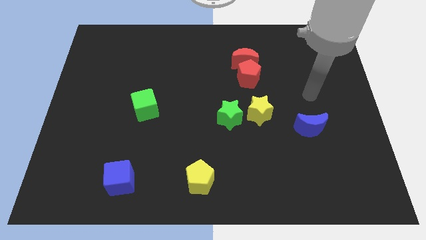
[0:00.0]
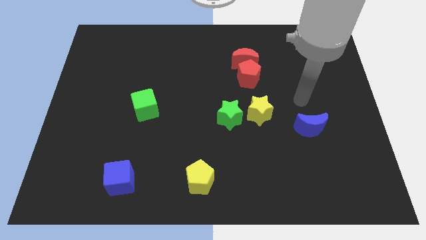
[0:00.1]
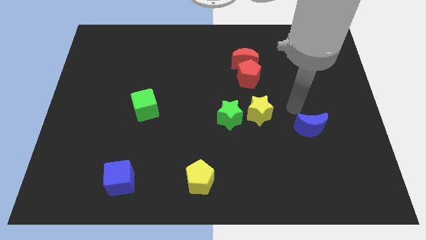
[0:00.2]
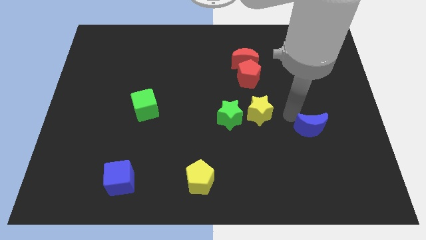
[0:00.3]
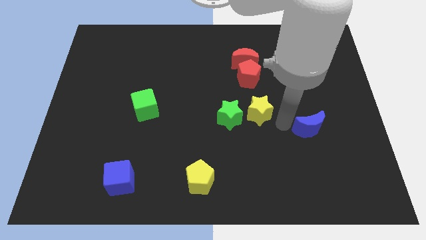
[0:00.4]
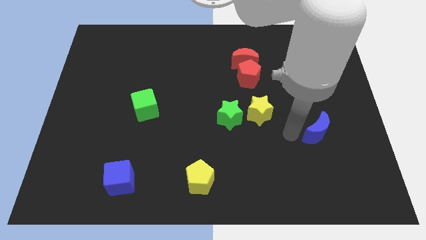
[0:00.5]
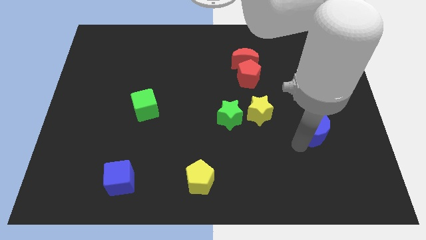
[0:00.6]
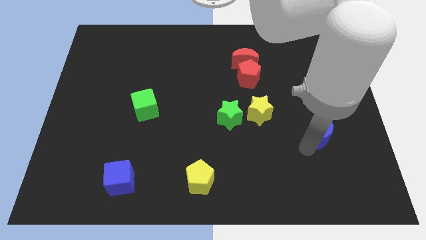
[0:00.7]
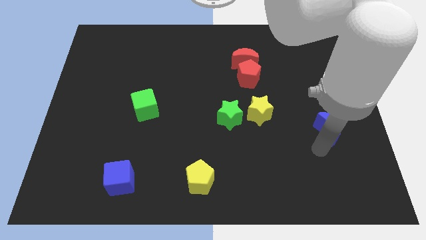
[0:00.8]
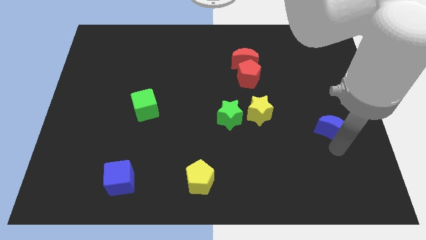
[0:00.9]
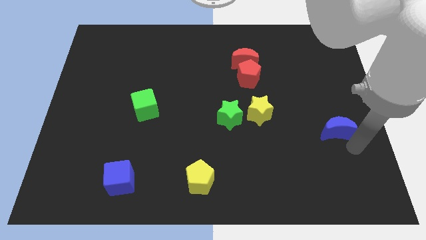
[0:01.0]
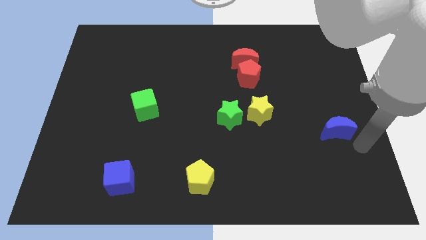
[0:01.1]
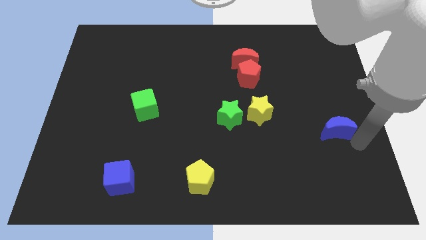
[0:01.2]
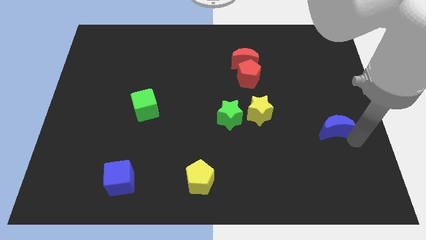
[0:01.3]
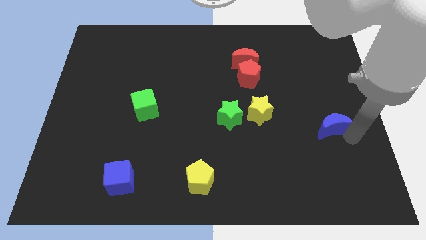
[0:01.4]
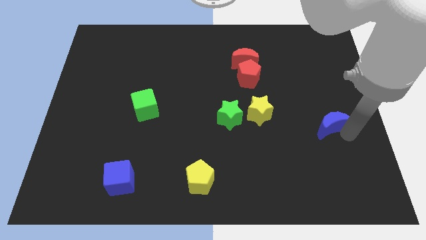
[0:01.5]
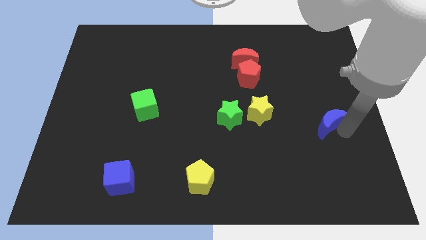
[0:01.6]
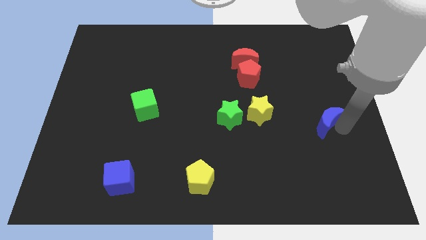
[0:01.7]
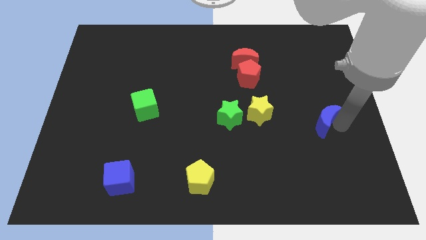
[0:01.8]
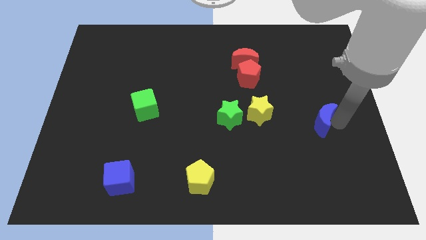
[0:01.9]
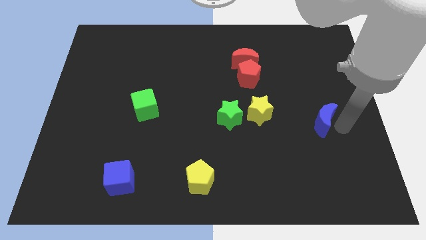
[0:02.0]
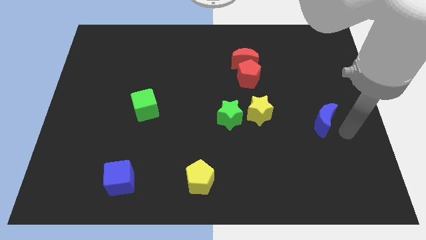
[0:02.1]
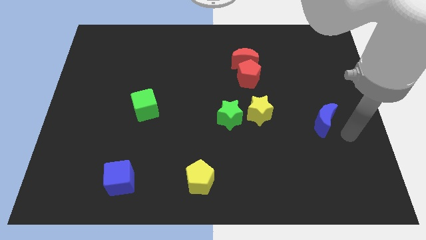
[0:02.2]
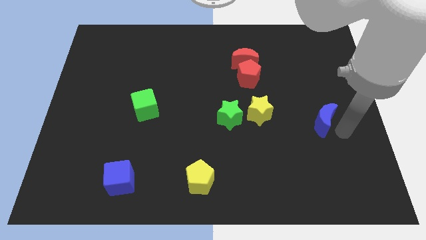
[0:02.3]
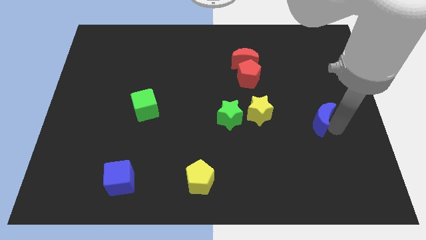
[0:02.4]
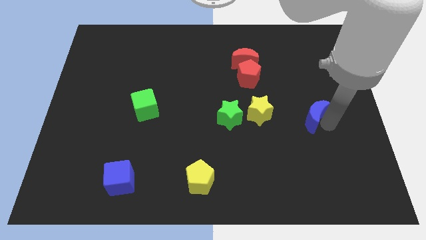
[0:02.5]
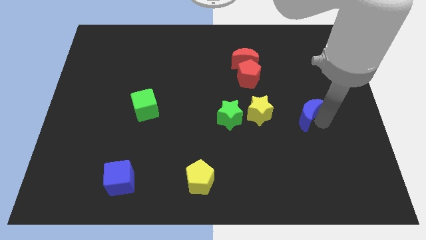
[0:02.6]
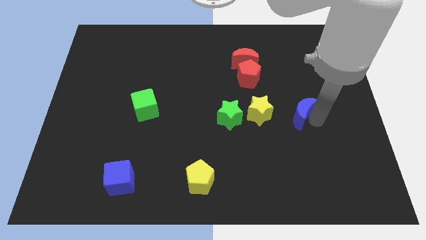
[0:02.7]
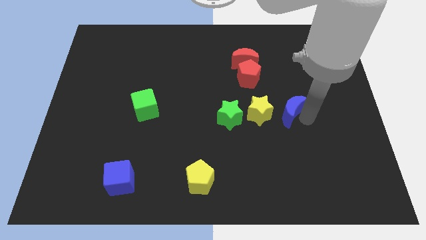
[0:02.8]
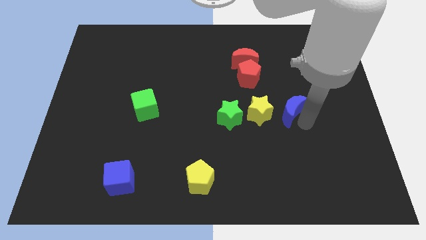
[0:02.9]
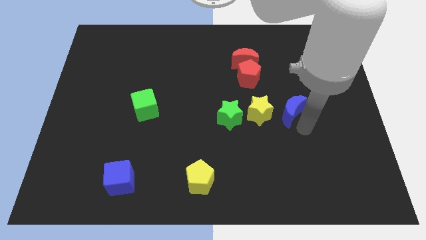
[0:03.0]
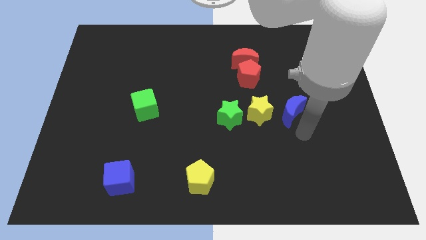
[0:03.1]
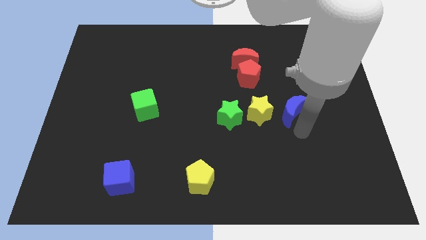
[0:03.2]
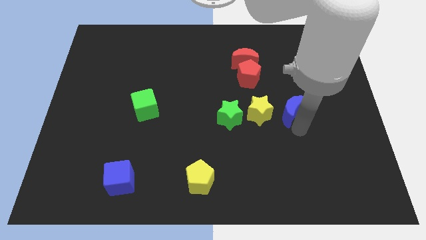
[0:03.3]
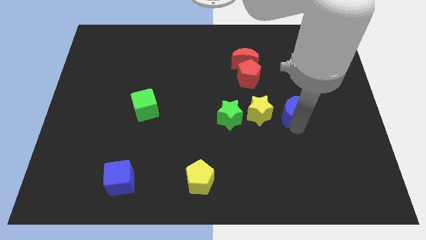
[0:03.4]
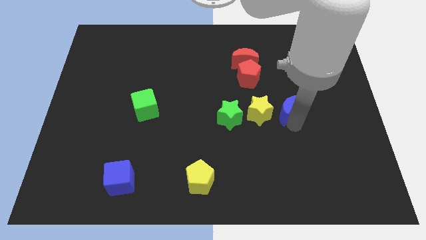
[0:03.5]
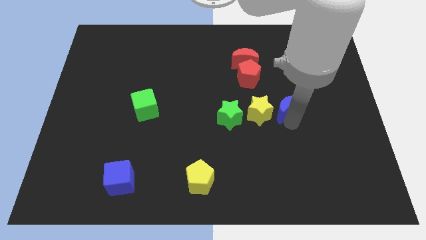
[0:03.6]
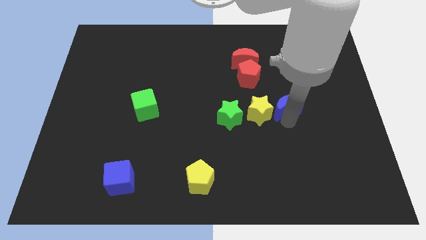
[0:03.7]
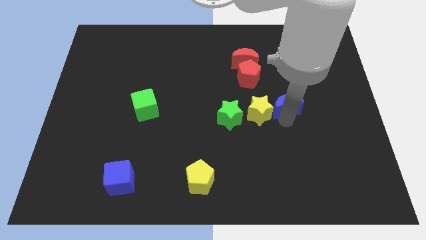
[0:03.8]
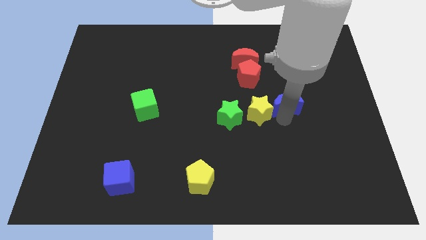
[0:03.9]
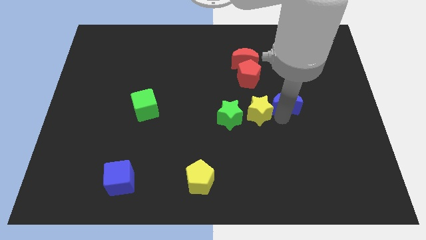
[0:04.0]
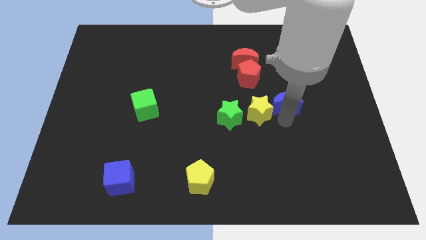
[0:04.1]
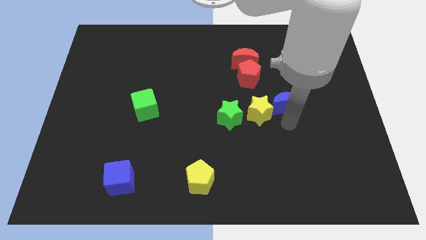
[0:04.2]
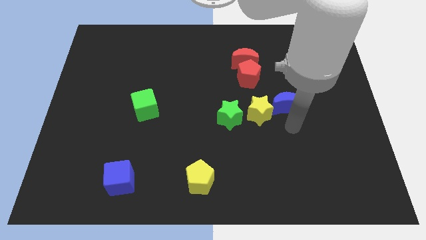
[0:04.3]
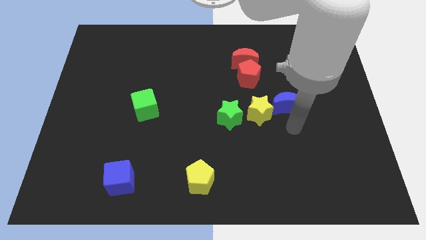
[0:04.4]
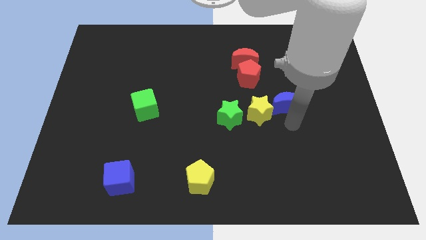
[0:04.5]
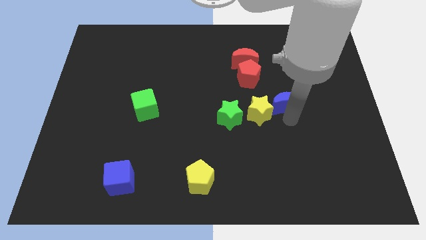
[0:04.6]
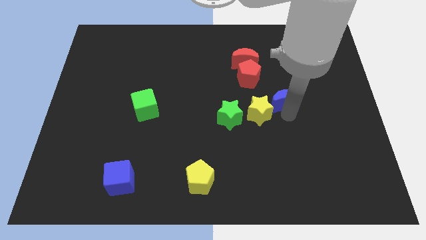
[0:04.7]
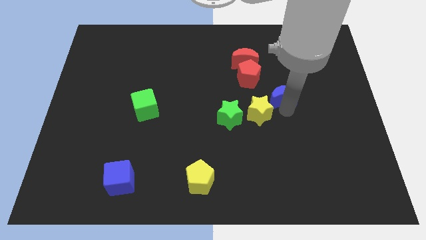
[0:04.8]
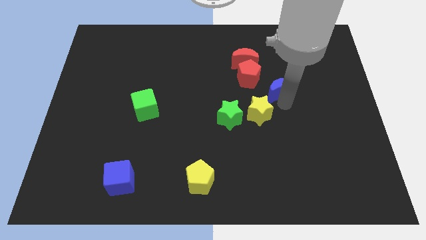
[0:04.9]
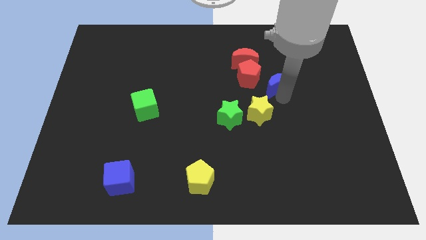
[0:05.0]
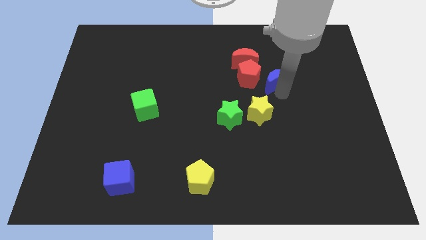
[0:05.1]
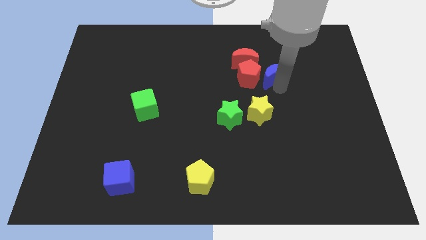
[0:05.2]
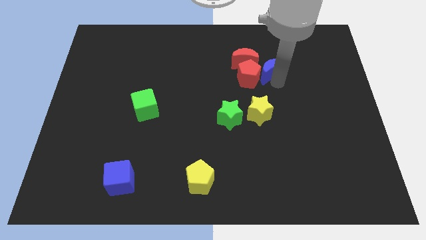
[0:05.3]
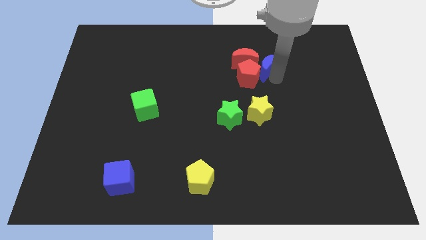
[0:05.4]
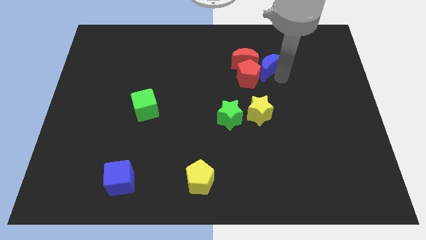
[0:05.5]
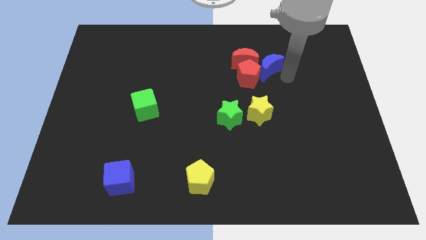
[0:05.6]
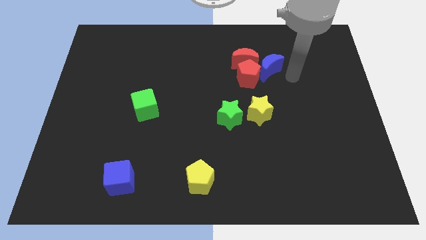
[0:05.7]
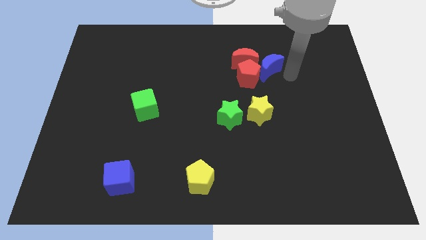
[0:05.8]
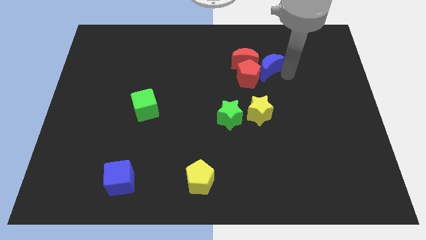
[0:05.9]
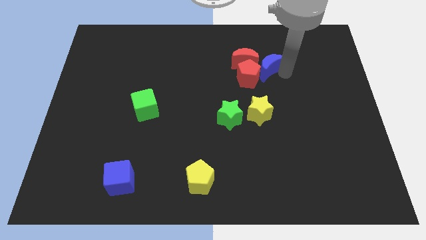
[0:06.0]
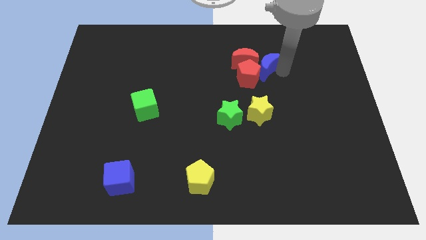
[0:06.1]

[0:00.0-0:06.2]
slide the blue moon to the red moon

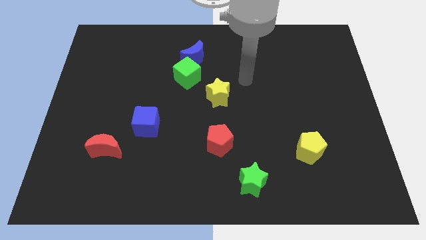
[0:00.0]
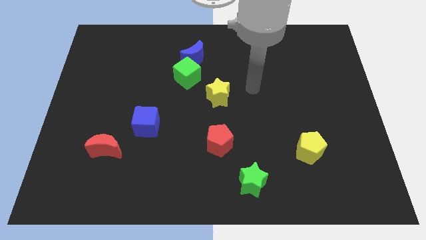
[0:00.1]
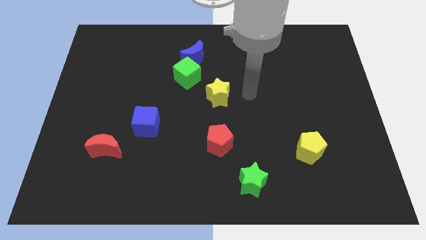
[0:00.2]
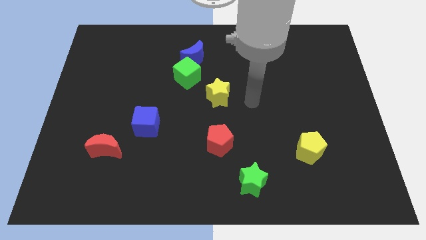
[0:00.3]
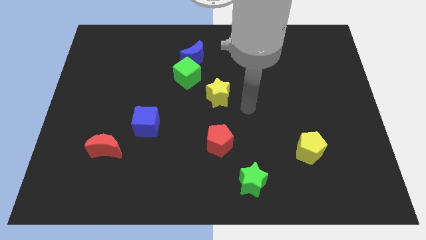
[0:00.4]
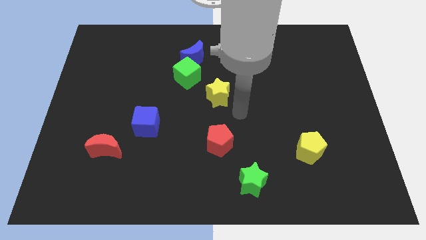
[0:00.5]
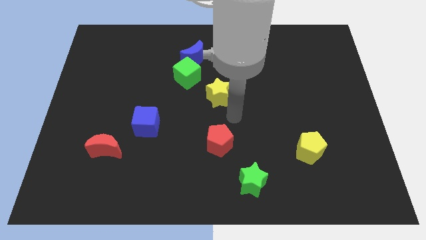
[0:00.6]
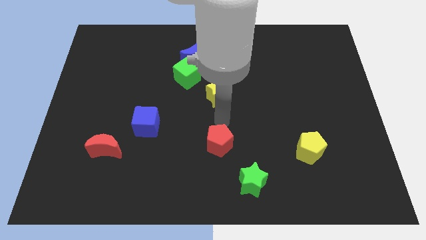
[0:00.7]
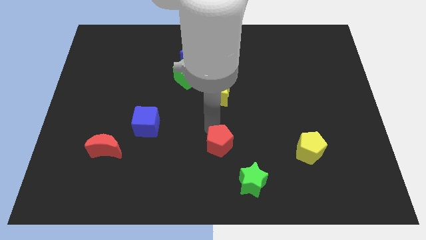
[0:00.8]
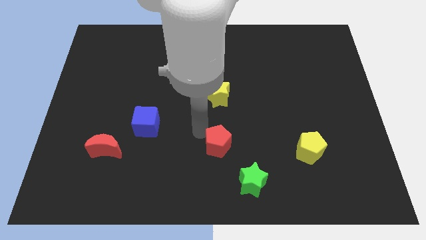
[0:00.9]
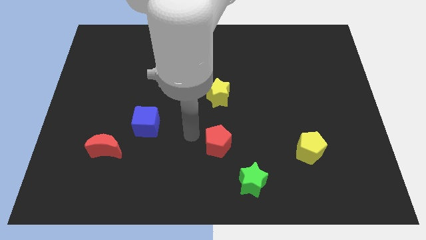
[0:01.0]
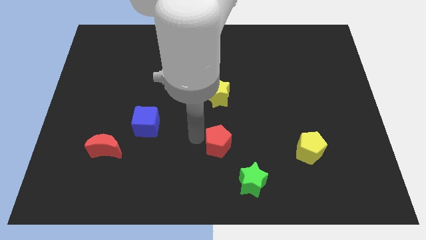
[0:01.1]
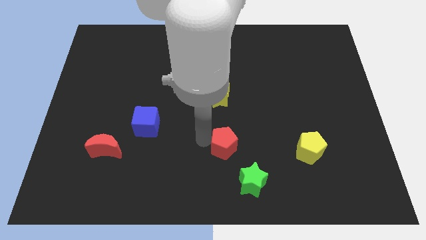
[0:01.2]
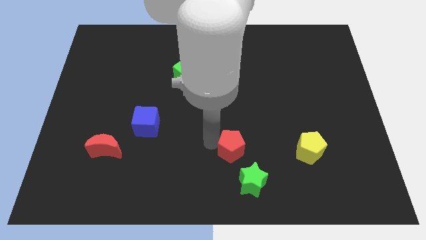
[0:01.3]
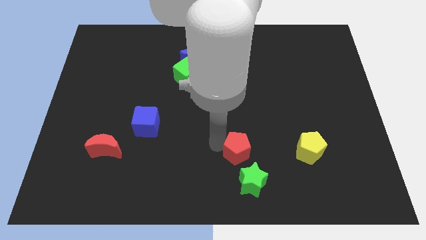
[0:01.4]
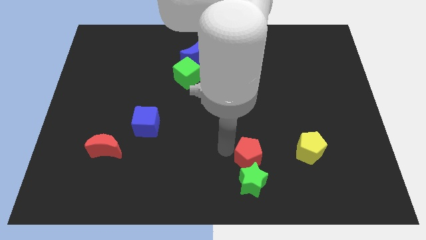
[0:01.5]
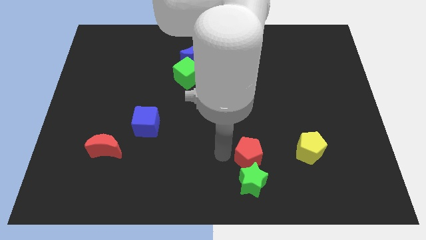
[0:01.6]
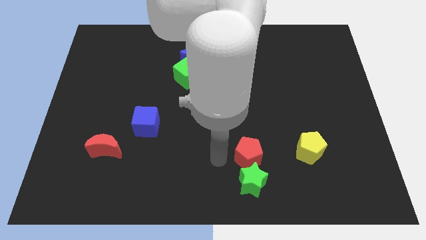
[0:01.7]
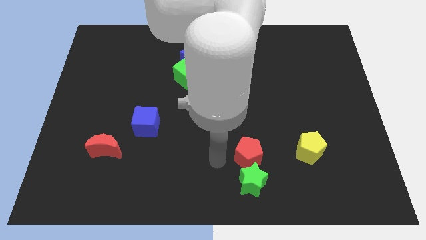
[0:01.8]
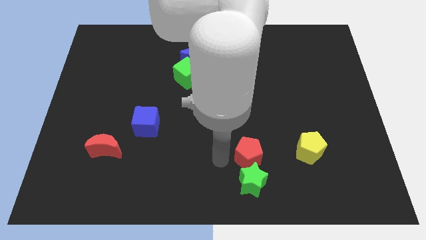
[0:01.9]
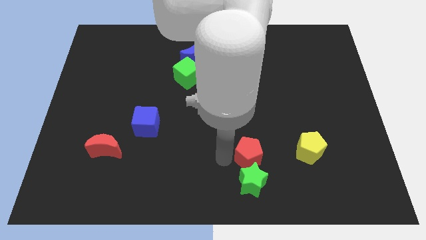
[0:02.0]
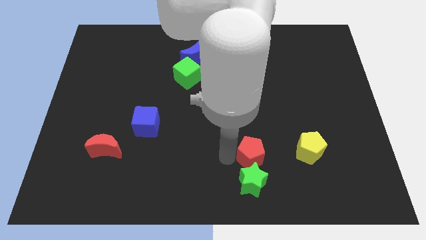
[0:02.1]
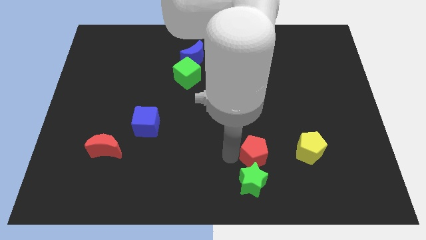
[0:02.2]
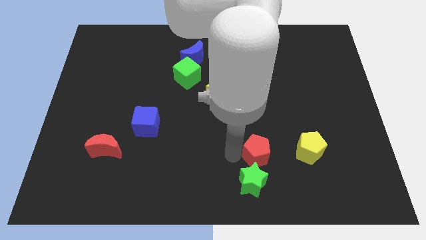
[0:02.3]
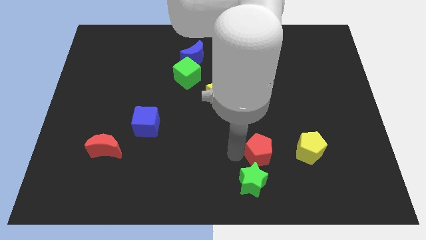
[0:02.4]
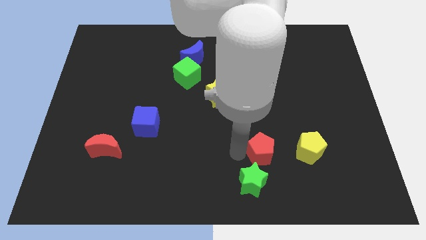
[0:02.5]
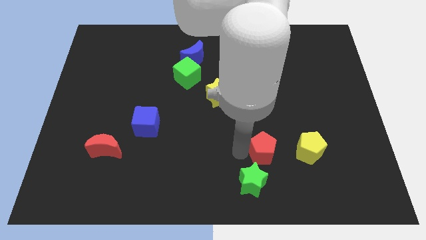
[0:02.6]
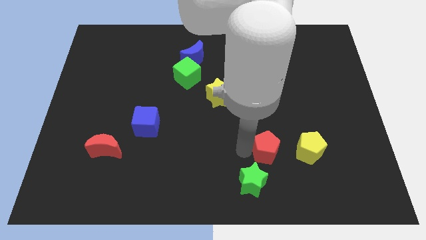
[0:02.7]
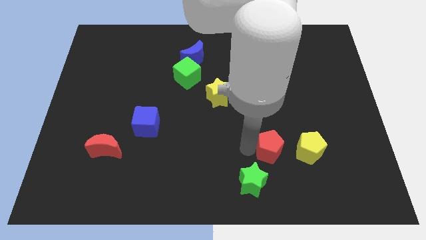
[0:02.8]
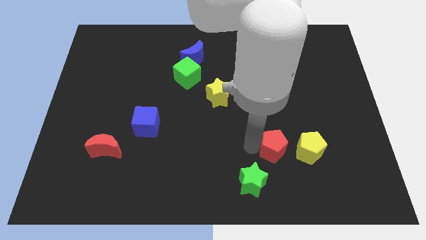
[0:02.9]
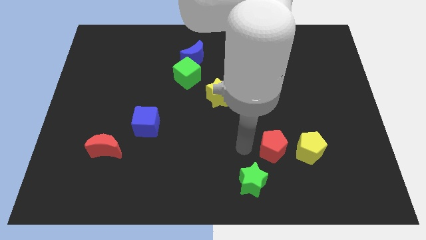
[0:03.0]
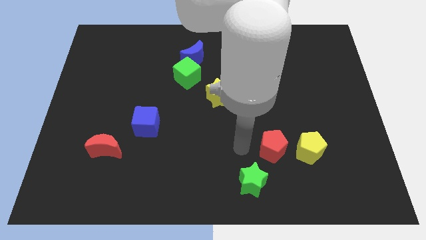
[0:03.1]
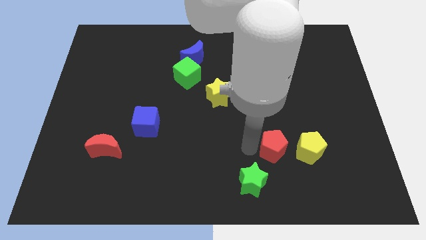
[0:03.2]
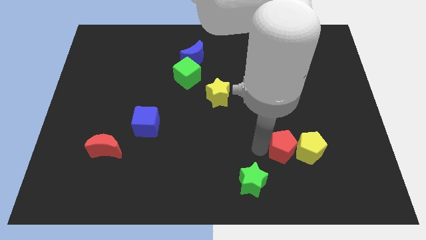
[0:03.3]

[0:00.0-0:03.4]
slide the red pentagon to the yellow pentagon
